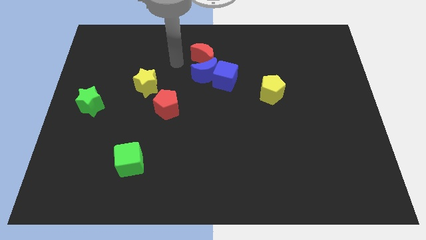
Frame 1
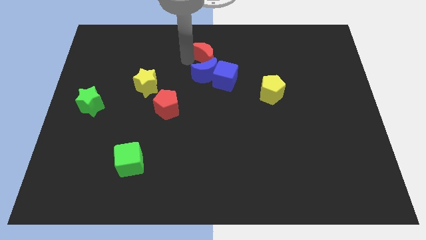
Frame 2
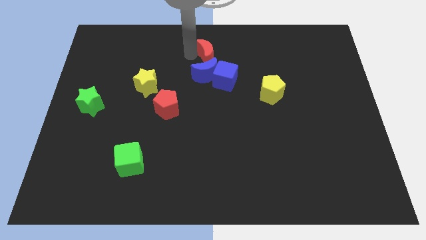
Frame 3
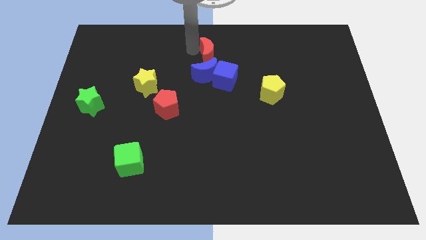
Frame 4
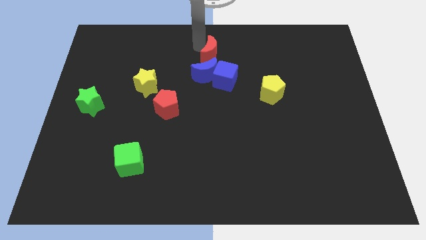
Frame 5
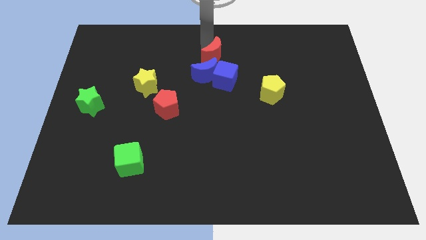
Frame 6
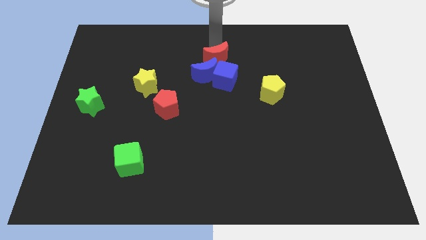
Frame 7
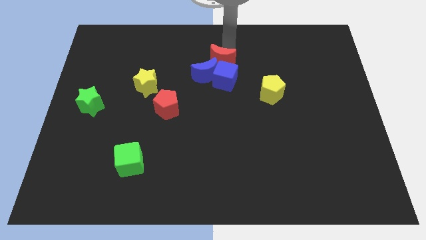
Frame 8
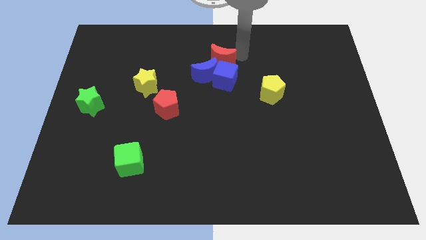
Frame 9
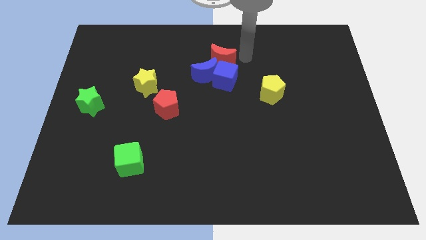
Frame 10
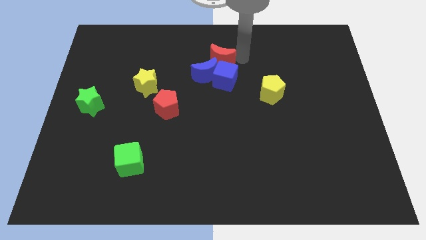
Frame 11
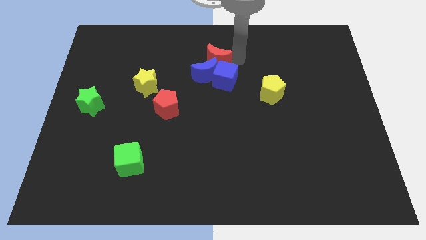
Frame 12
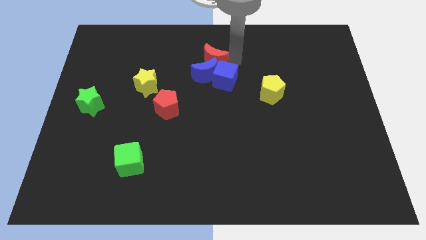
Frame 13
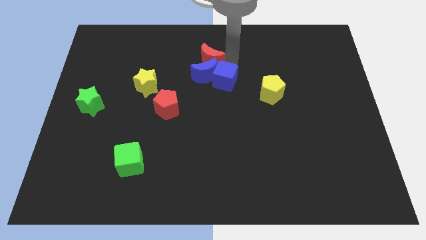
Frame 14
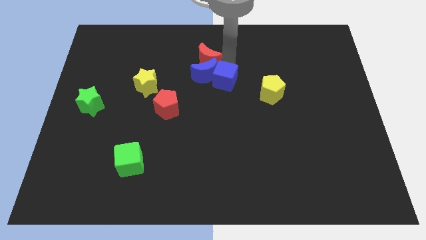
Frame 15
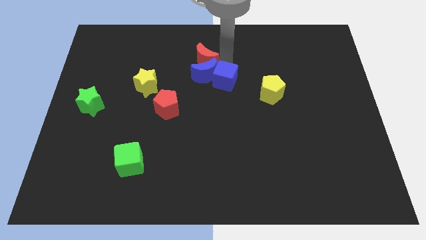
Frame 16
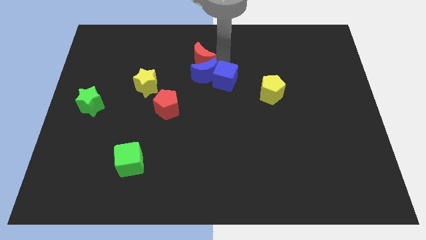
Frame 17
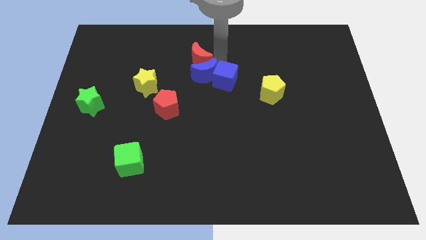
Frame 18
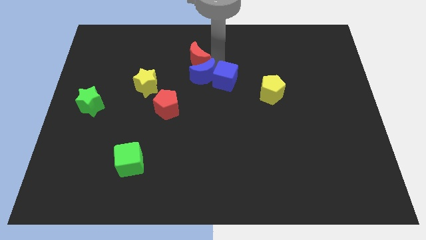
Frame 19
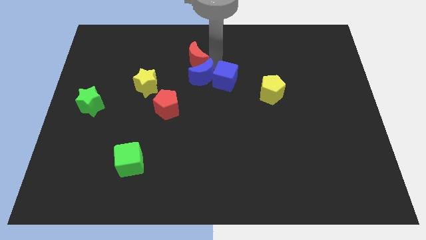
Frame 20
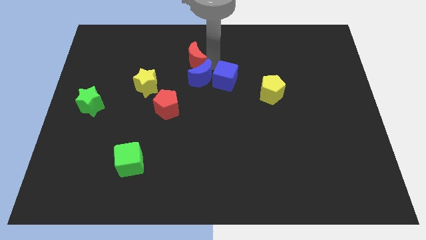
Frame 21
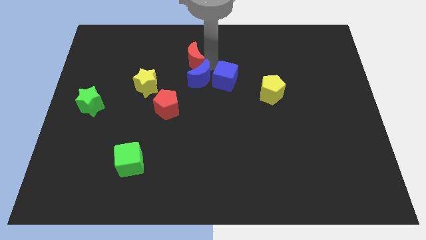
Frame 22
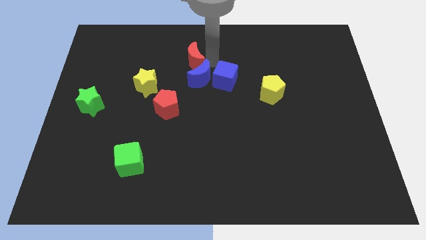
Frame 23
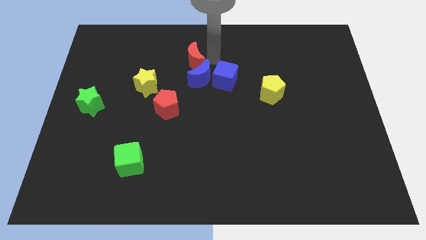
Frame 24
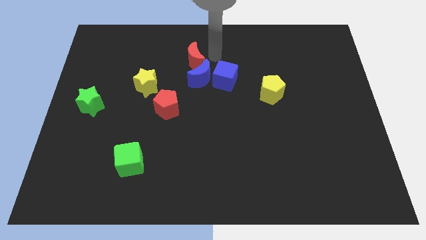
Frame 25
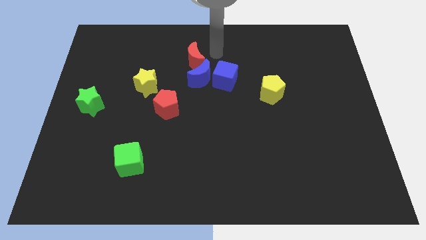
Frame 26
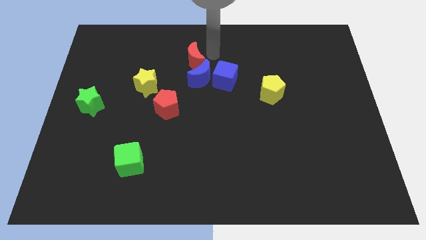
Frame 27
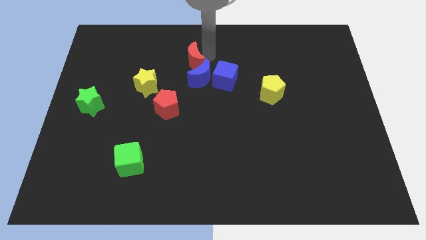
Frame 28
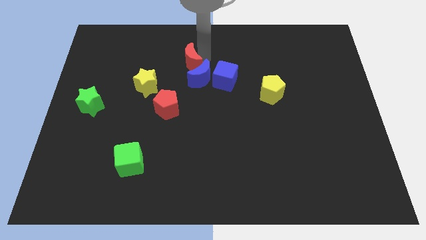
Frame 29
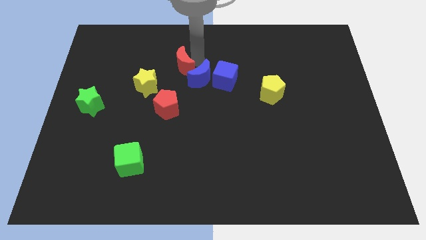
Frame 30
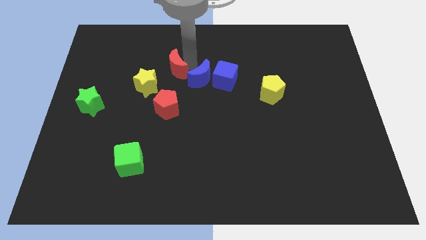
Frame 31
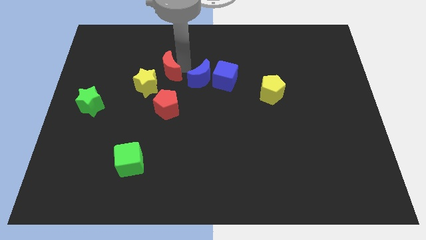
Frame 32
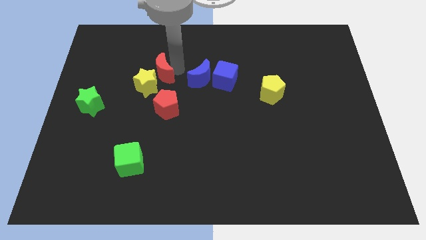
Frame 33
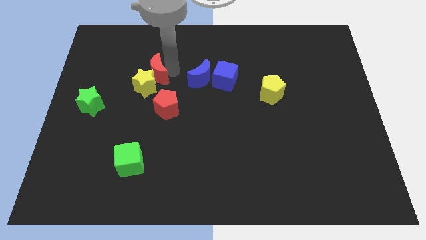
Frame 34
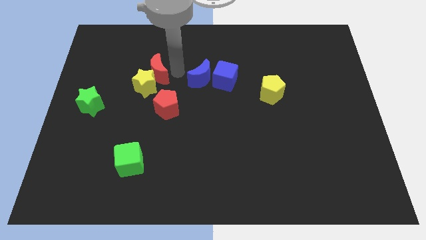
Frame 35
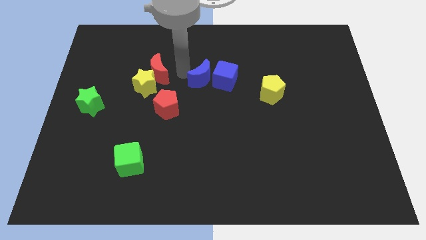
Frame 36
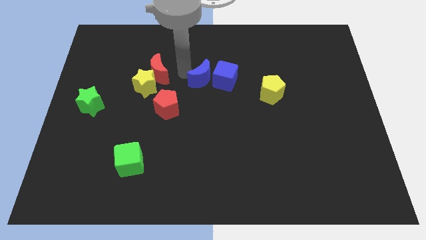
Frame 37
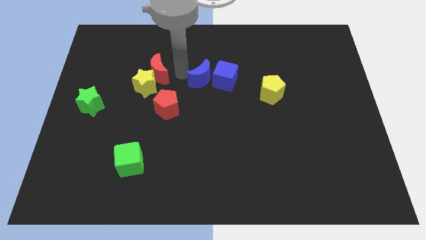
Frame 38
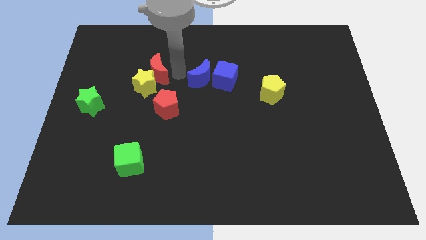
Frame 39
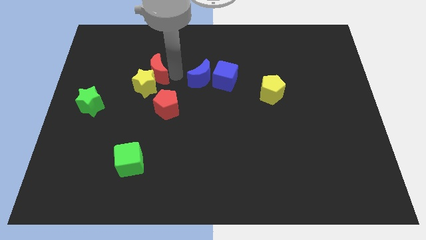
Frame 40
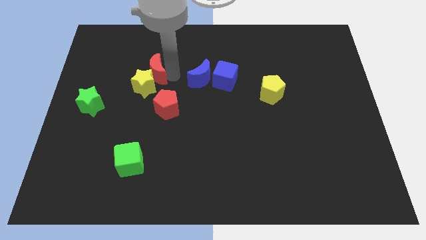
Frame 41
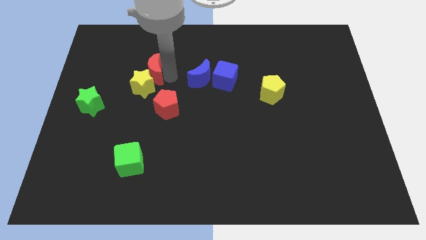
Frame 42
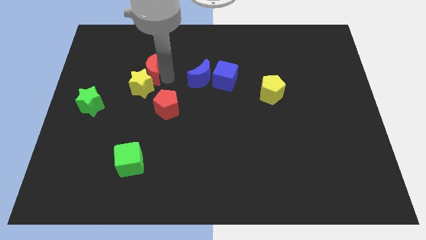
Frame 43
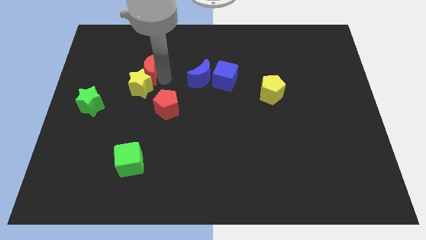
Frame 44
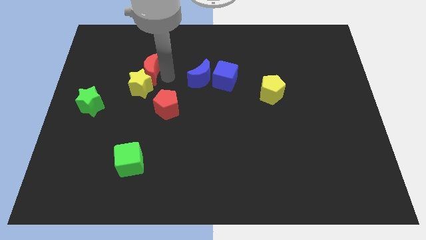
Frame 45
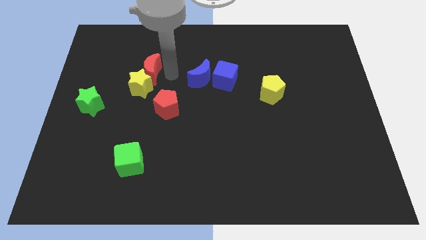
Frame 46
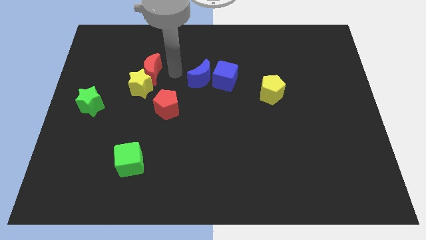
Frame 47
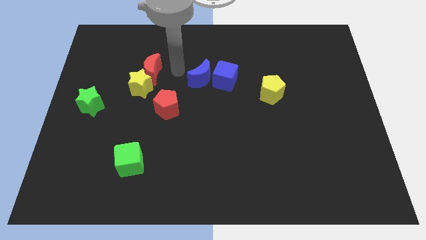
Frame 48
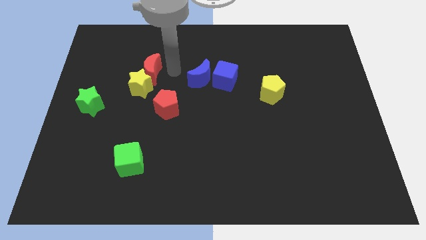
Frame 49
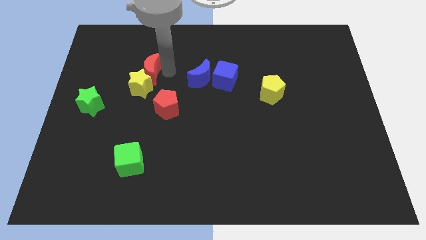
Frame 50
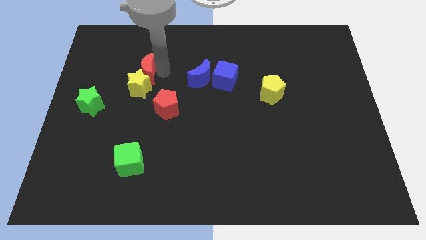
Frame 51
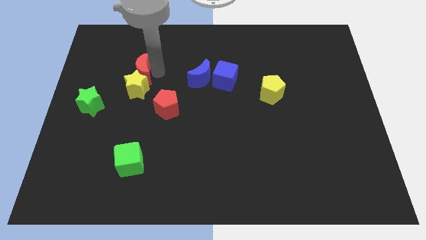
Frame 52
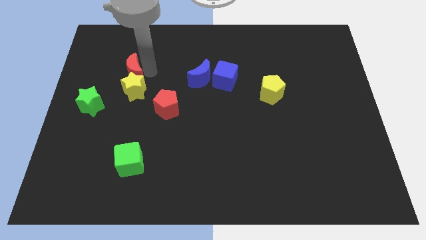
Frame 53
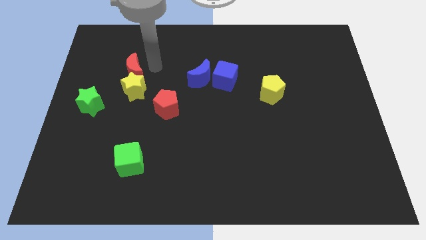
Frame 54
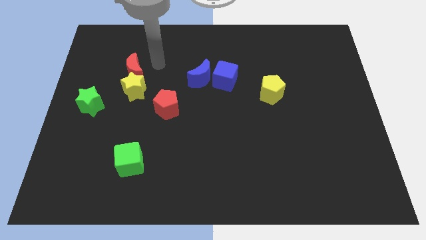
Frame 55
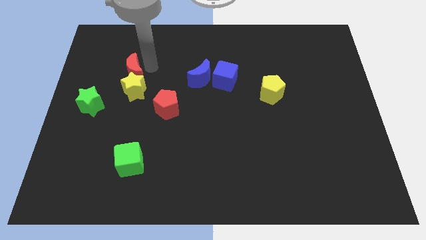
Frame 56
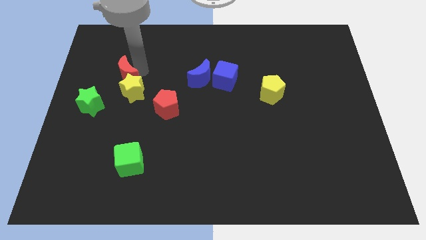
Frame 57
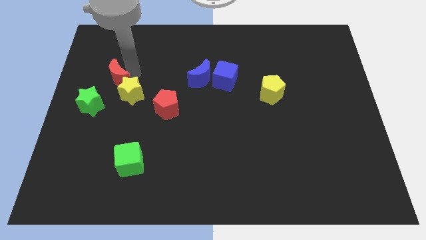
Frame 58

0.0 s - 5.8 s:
move the red moon to the left of the yellow star

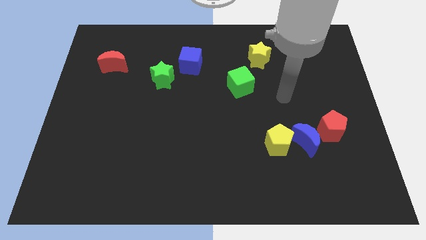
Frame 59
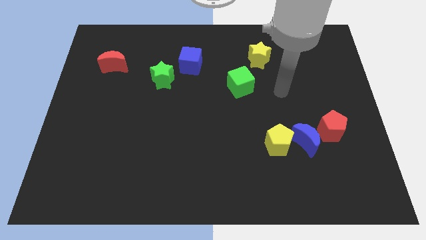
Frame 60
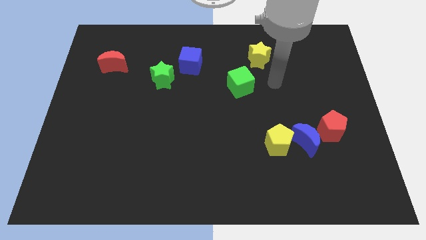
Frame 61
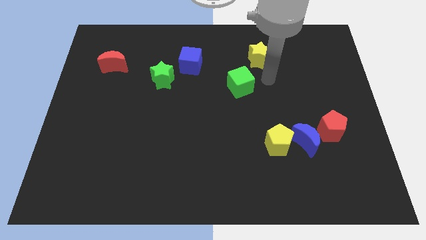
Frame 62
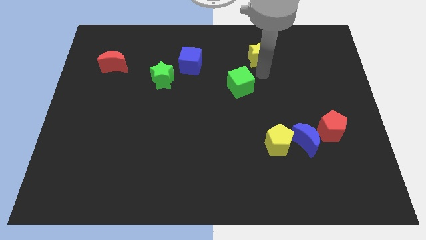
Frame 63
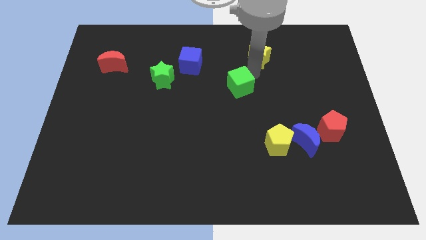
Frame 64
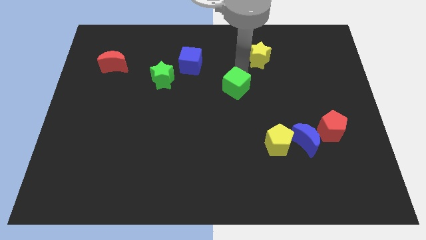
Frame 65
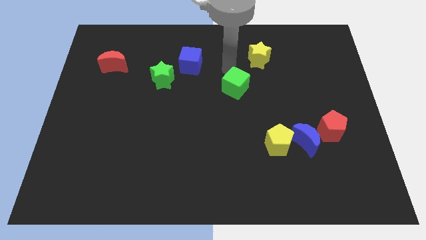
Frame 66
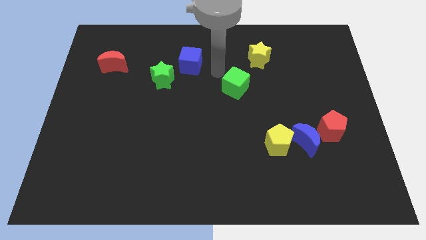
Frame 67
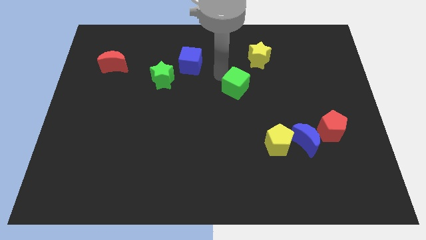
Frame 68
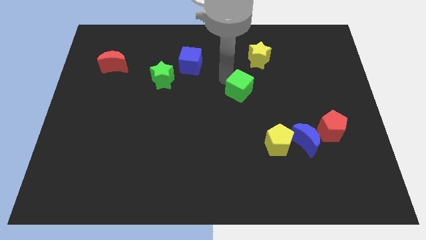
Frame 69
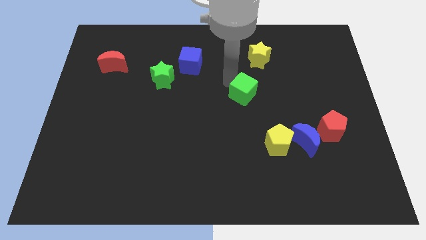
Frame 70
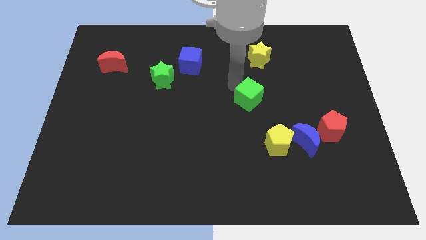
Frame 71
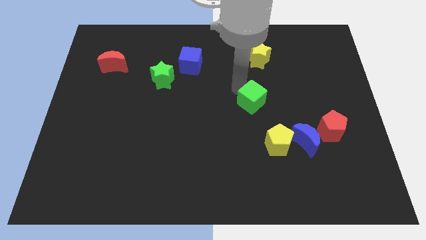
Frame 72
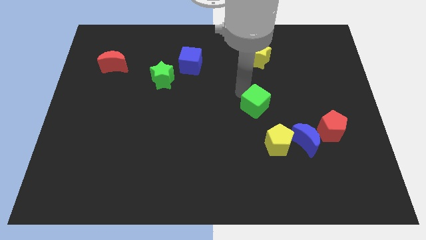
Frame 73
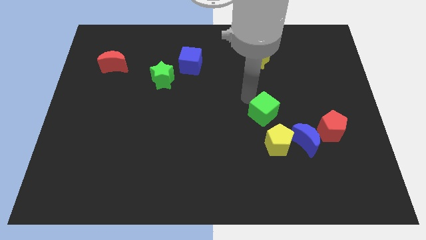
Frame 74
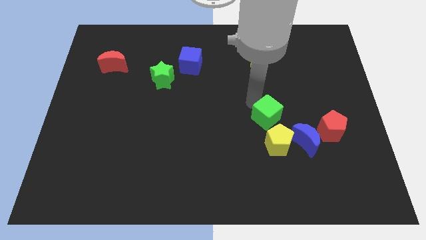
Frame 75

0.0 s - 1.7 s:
push the green cube to the left side of the red pentagon
